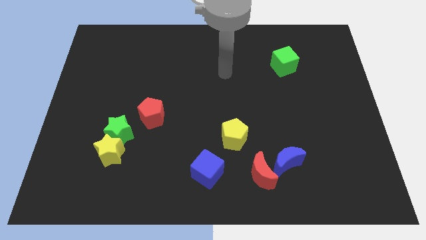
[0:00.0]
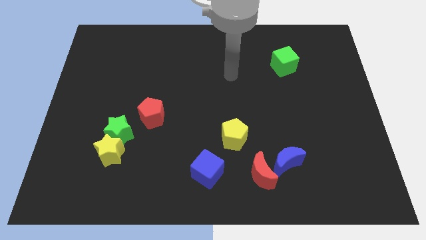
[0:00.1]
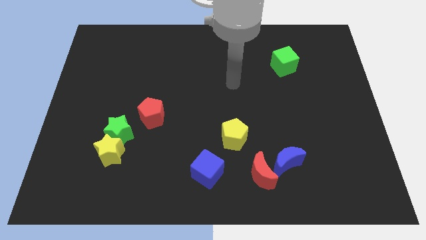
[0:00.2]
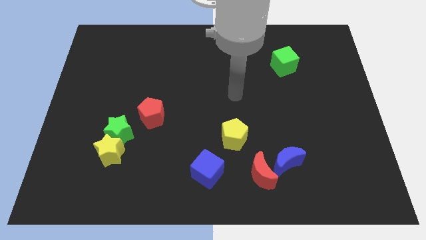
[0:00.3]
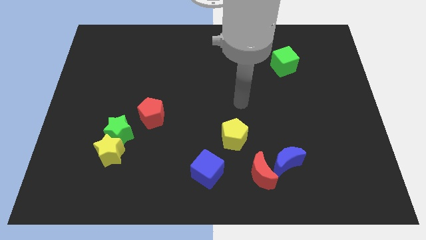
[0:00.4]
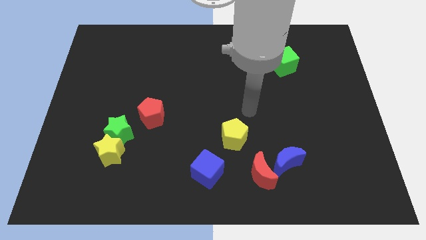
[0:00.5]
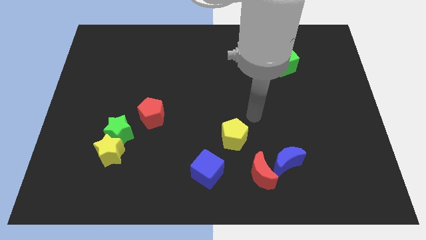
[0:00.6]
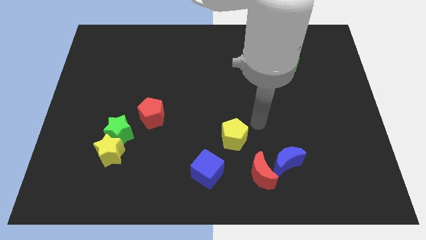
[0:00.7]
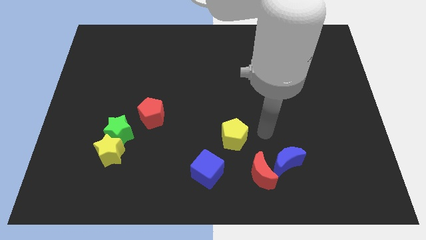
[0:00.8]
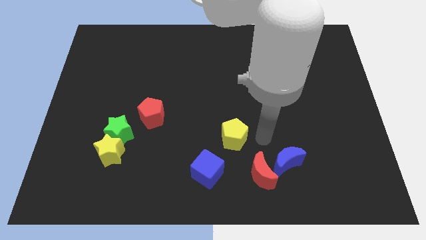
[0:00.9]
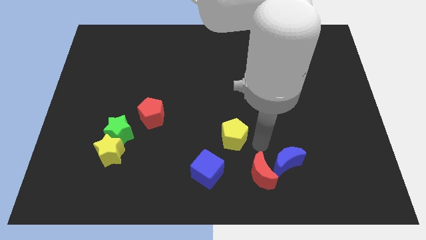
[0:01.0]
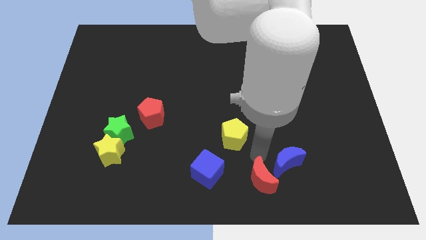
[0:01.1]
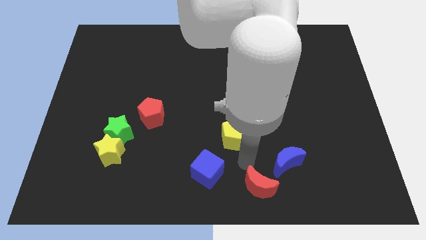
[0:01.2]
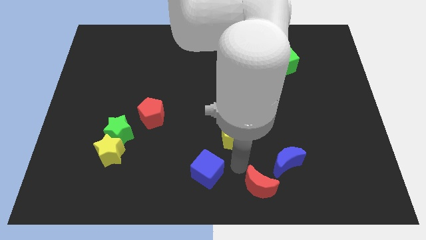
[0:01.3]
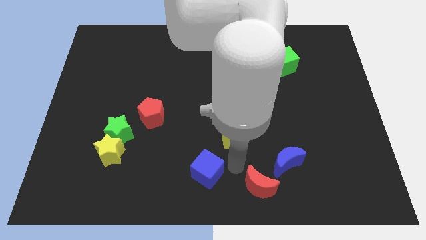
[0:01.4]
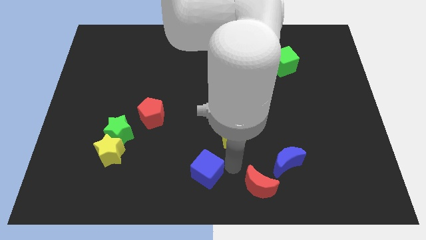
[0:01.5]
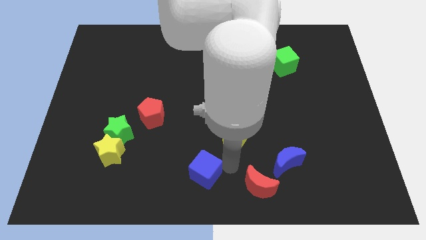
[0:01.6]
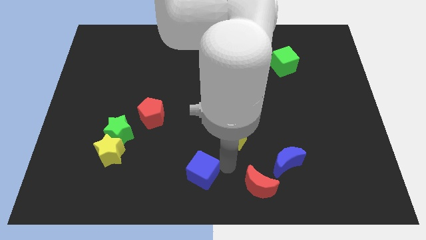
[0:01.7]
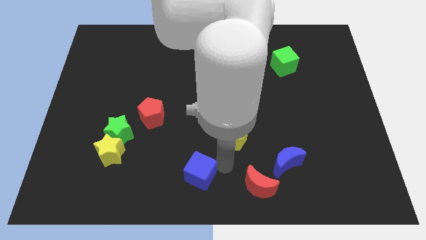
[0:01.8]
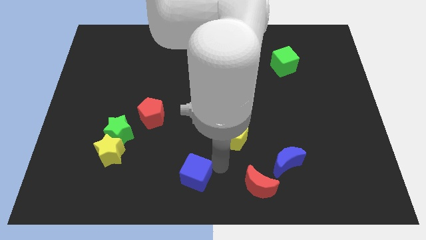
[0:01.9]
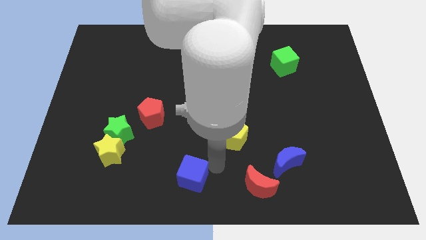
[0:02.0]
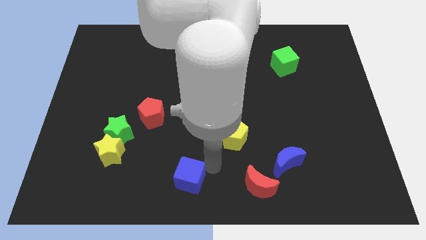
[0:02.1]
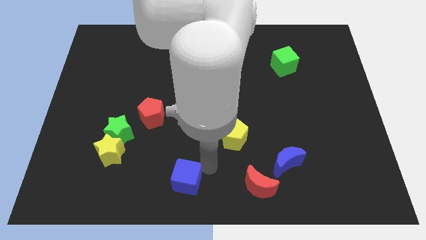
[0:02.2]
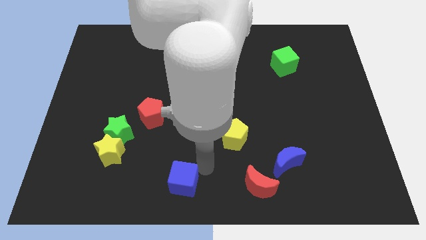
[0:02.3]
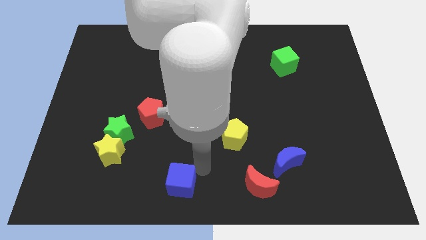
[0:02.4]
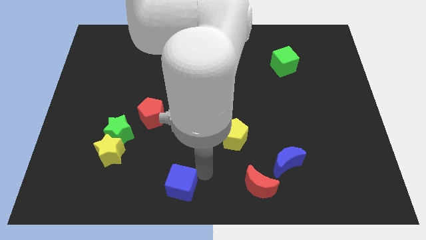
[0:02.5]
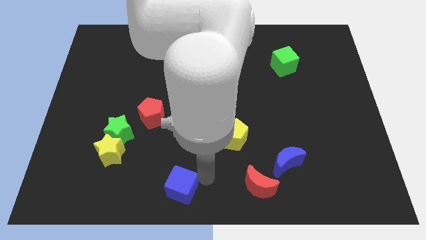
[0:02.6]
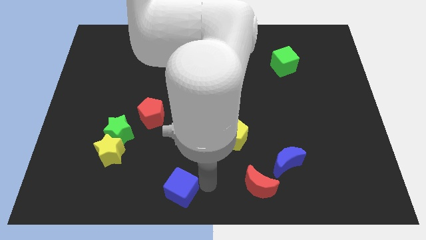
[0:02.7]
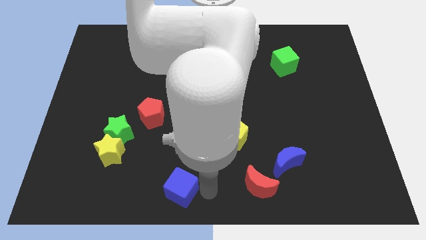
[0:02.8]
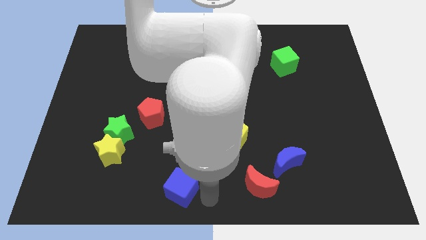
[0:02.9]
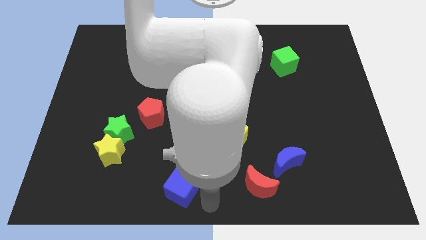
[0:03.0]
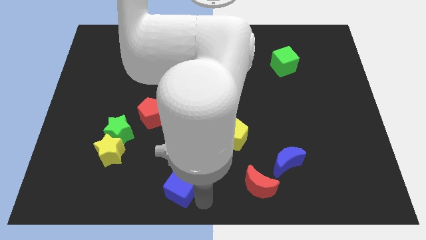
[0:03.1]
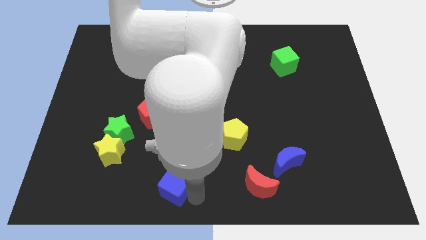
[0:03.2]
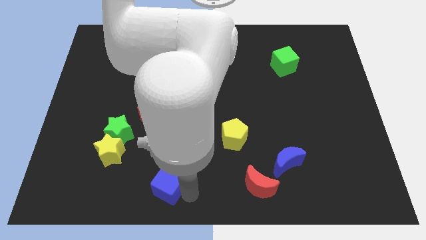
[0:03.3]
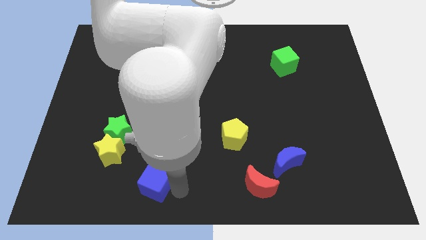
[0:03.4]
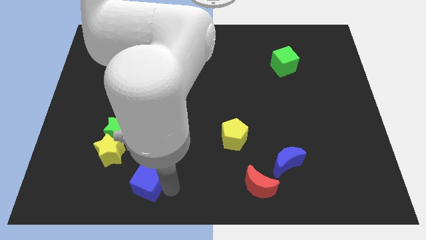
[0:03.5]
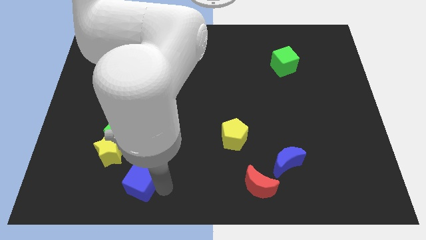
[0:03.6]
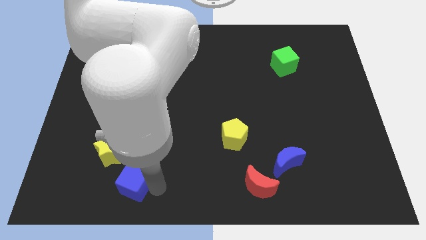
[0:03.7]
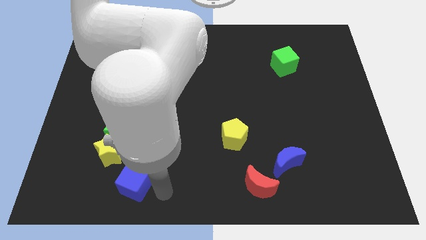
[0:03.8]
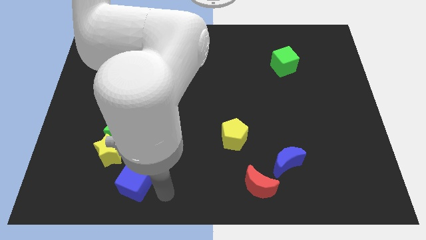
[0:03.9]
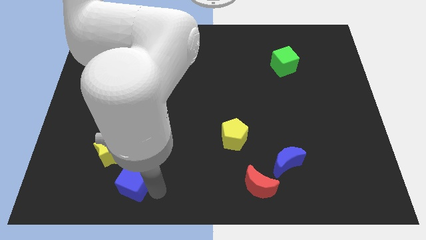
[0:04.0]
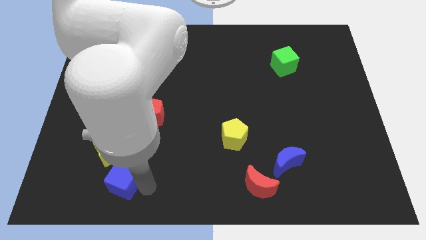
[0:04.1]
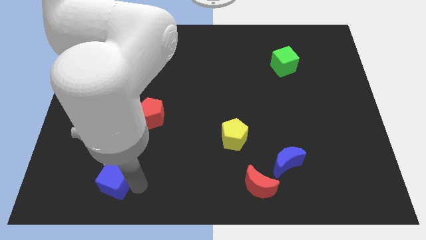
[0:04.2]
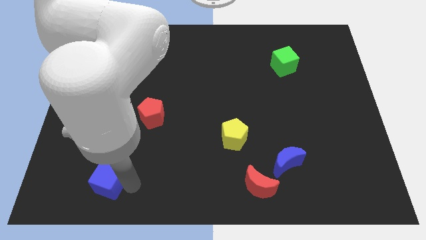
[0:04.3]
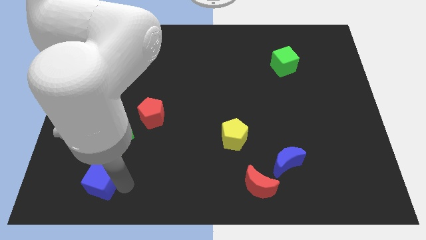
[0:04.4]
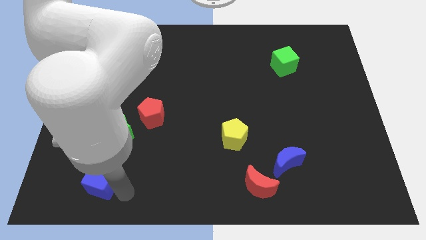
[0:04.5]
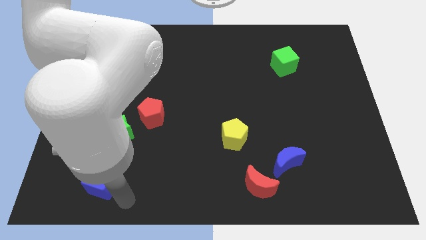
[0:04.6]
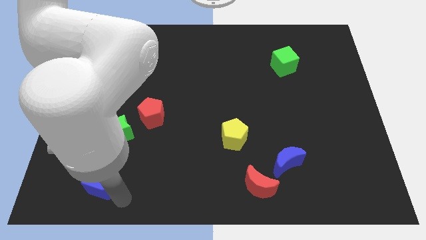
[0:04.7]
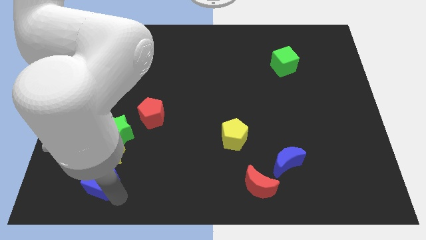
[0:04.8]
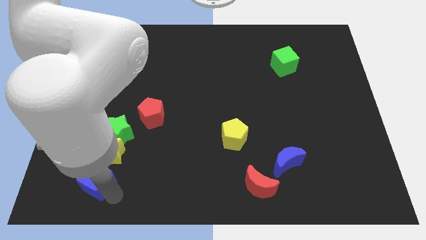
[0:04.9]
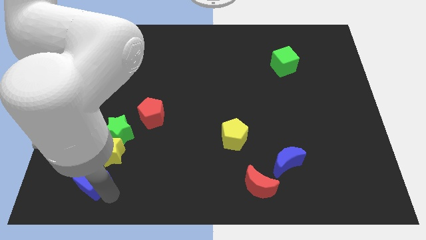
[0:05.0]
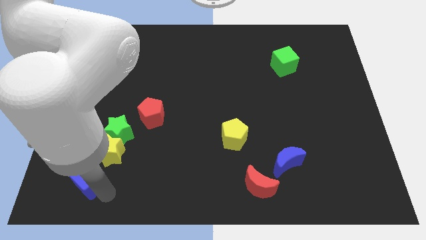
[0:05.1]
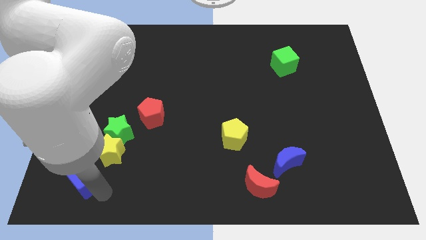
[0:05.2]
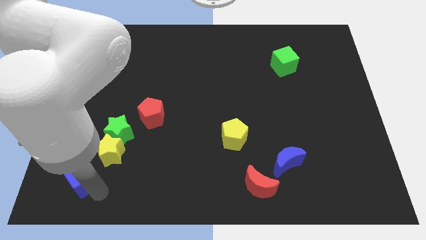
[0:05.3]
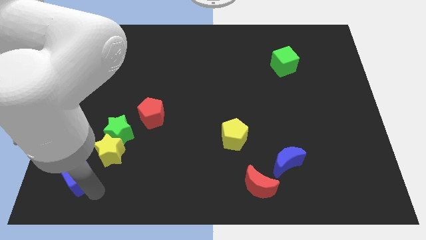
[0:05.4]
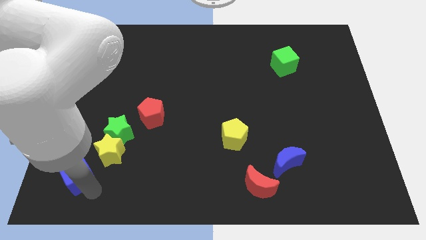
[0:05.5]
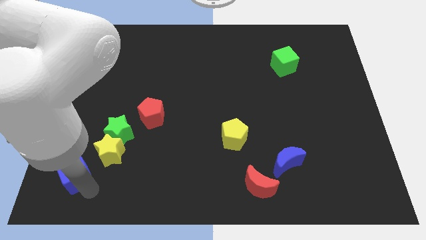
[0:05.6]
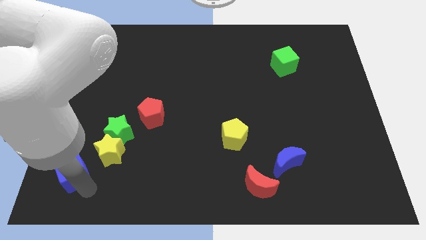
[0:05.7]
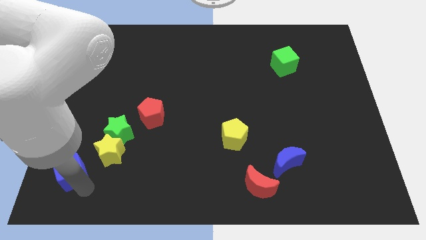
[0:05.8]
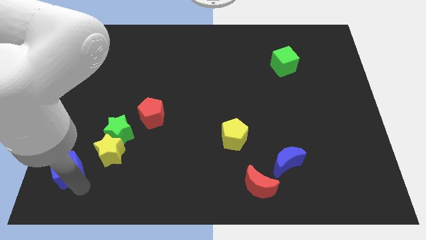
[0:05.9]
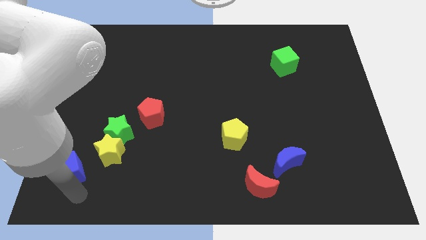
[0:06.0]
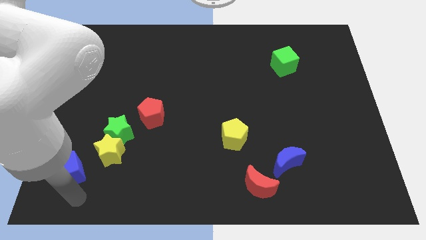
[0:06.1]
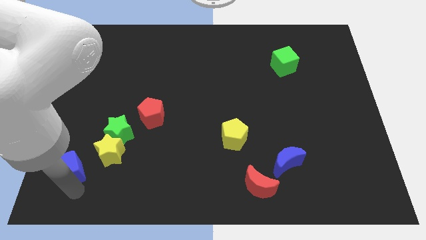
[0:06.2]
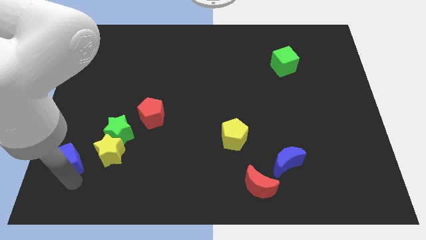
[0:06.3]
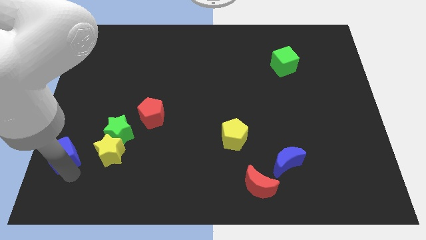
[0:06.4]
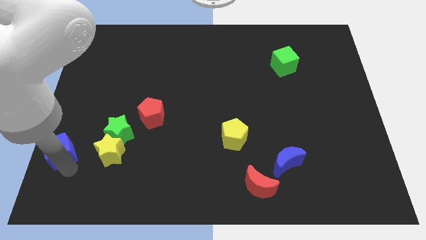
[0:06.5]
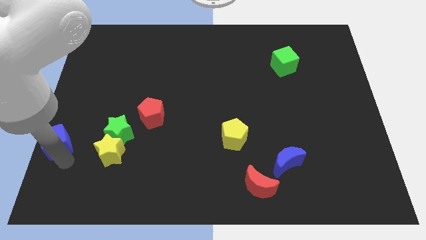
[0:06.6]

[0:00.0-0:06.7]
move the blue cube to the center left

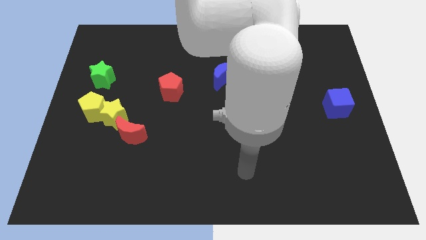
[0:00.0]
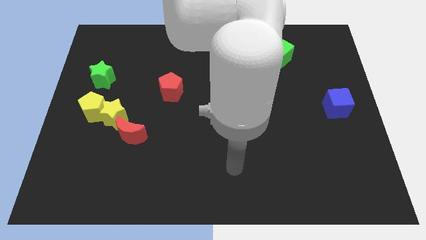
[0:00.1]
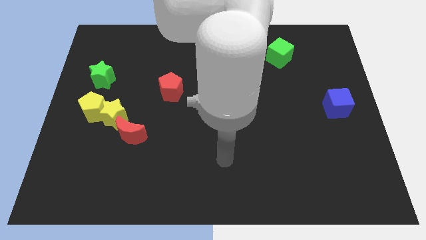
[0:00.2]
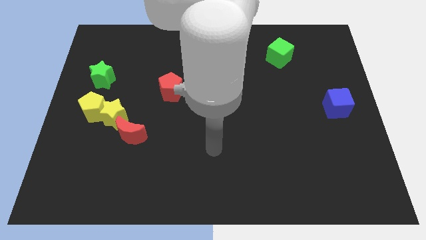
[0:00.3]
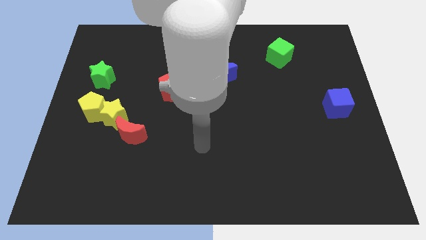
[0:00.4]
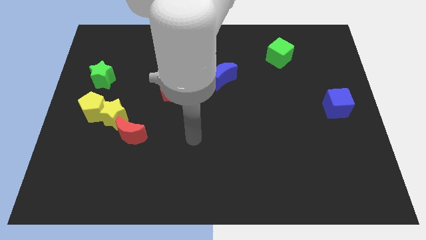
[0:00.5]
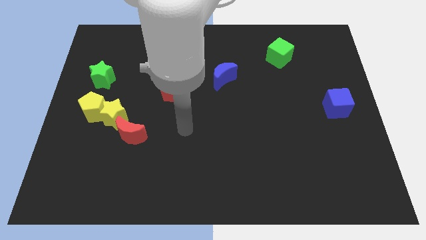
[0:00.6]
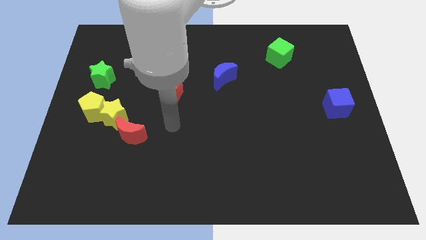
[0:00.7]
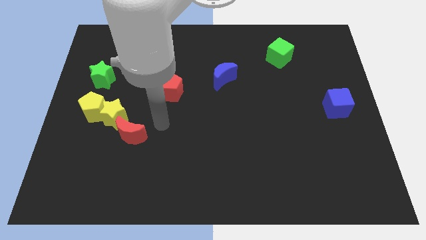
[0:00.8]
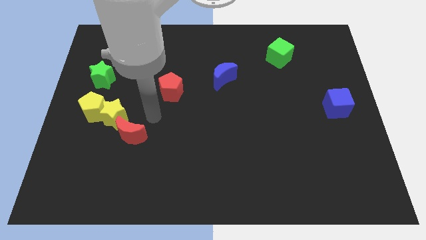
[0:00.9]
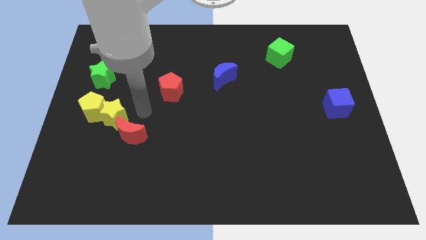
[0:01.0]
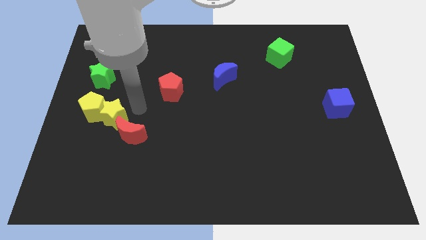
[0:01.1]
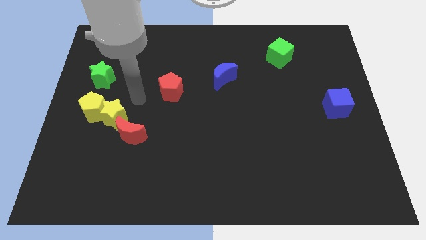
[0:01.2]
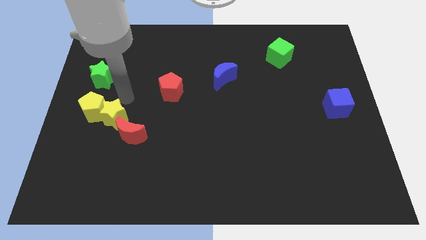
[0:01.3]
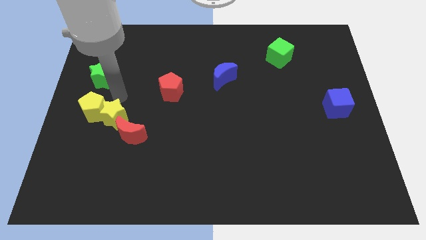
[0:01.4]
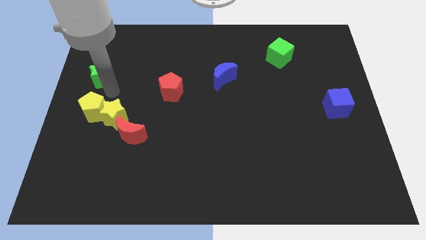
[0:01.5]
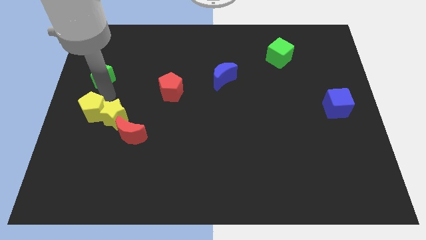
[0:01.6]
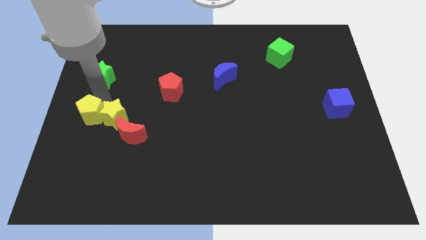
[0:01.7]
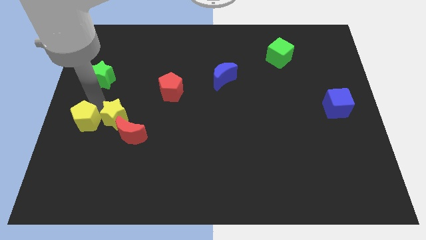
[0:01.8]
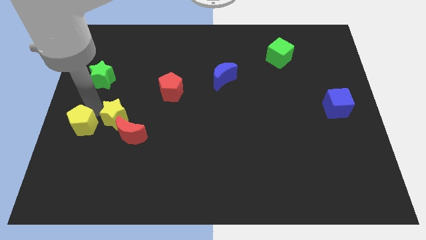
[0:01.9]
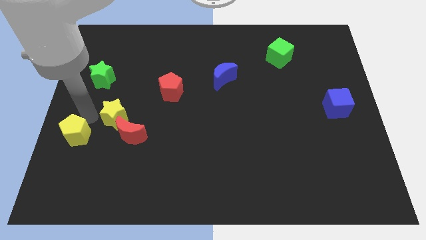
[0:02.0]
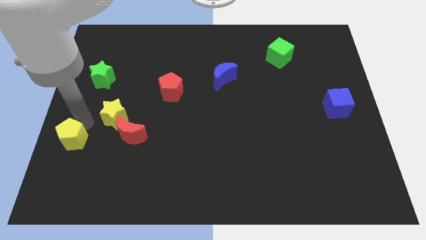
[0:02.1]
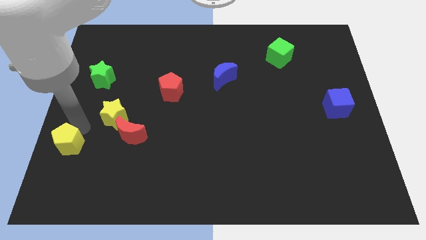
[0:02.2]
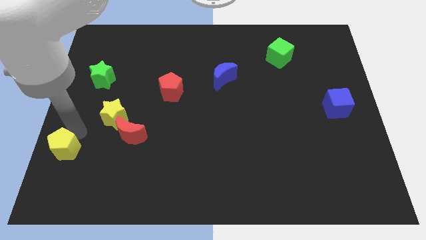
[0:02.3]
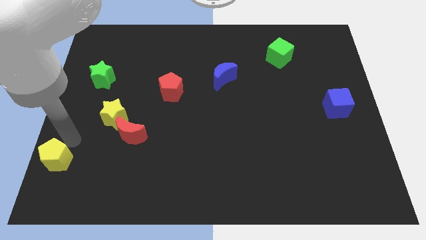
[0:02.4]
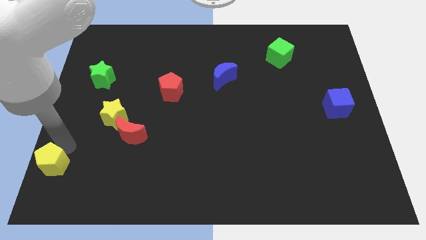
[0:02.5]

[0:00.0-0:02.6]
push the yellow pentagon to the bottom left
